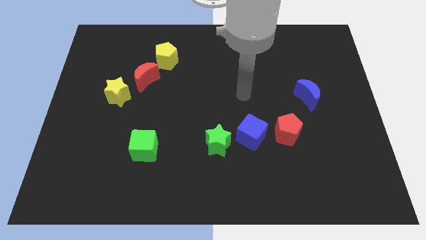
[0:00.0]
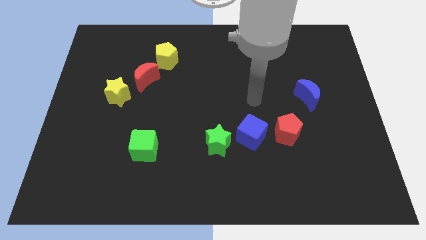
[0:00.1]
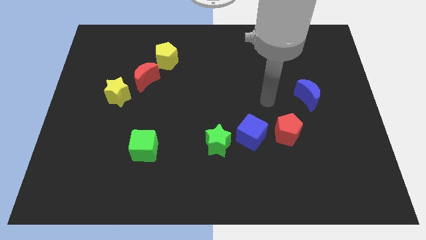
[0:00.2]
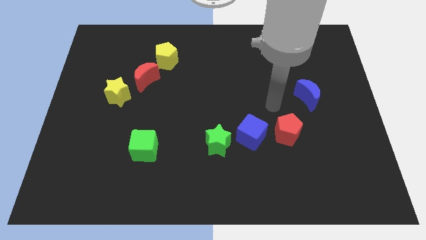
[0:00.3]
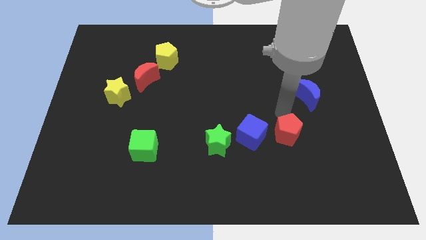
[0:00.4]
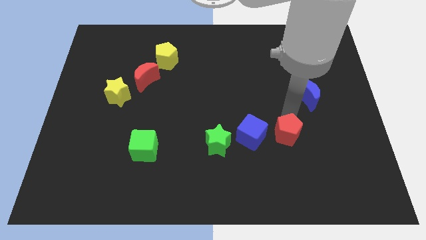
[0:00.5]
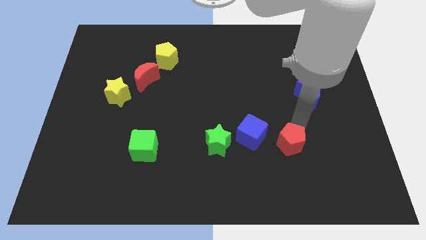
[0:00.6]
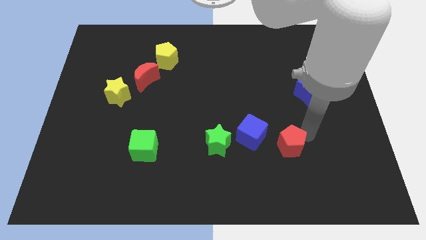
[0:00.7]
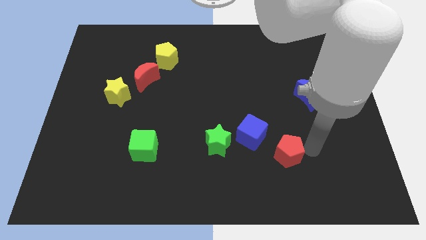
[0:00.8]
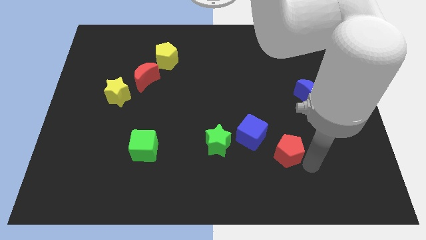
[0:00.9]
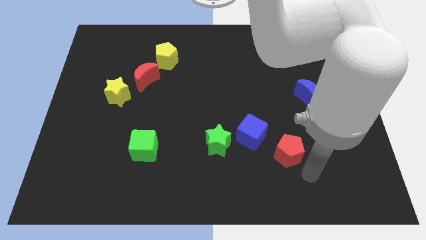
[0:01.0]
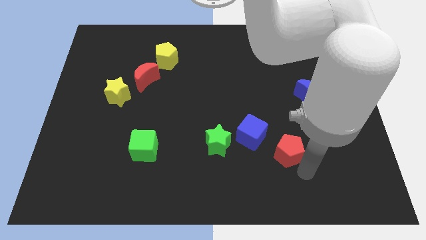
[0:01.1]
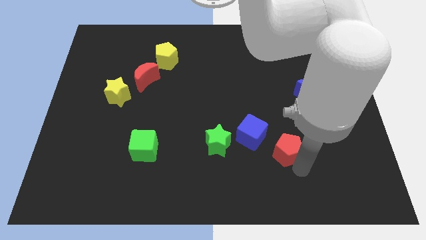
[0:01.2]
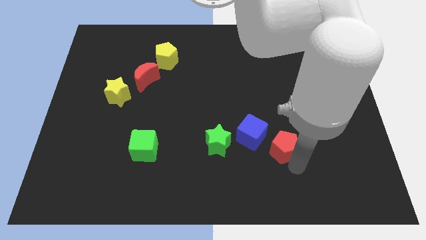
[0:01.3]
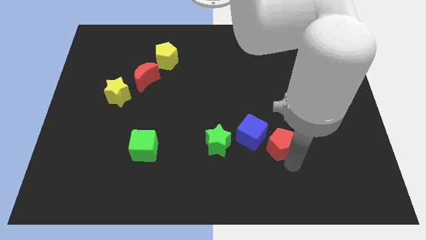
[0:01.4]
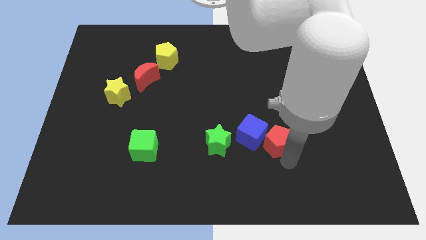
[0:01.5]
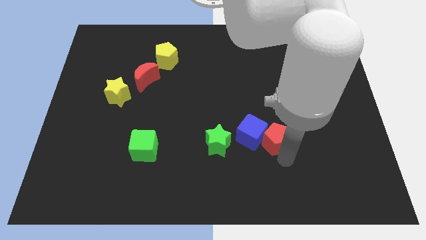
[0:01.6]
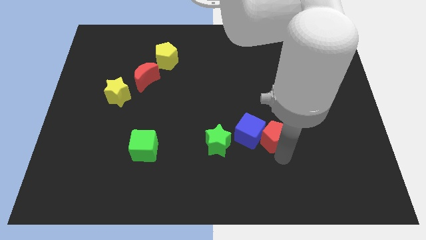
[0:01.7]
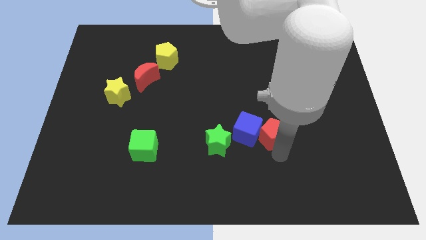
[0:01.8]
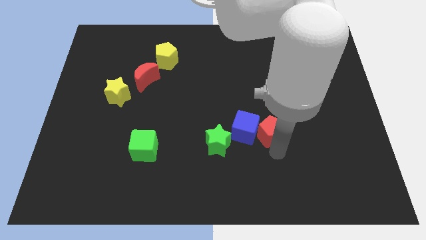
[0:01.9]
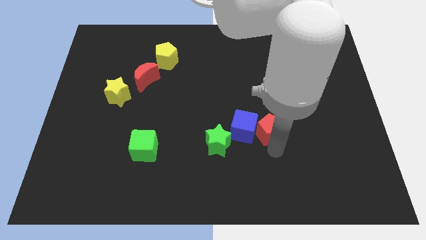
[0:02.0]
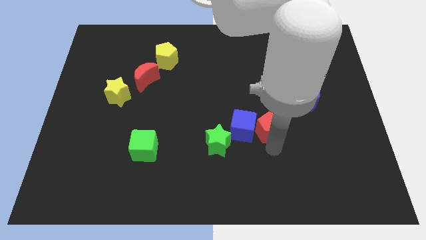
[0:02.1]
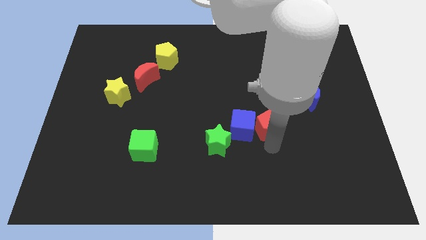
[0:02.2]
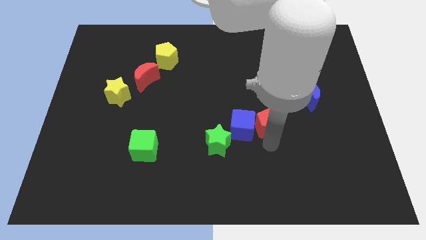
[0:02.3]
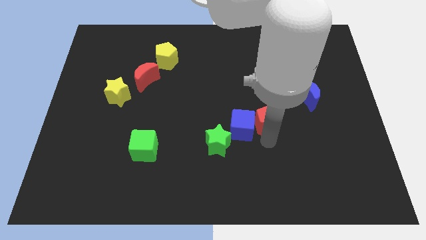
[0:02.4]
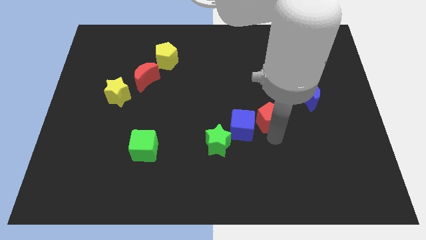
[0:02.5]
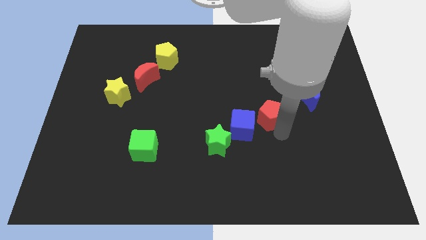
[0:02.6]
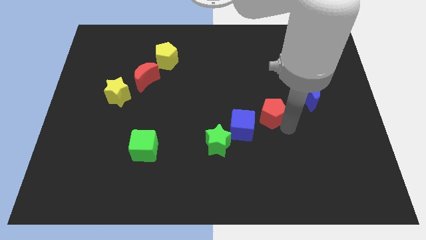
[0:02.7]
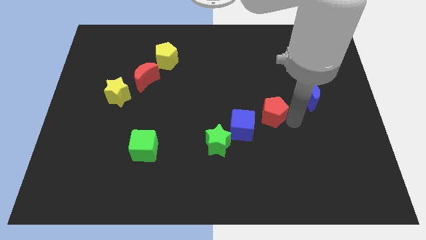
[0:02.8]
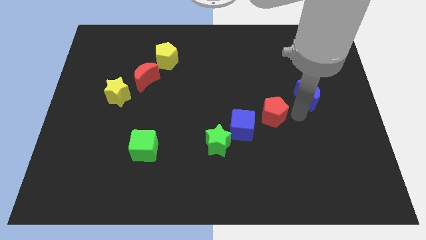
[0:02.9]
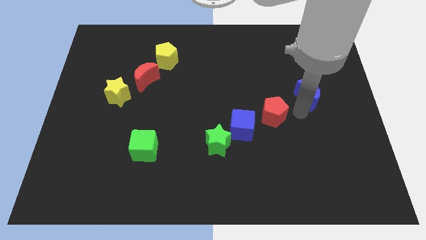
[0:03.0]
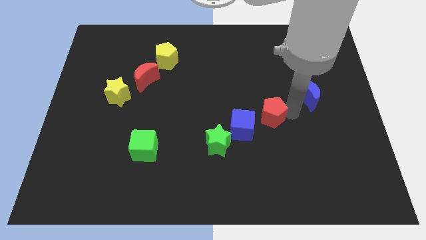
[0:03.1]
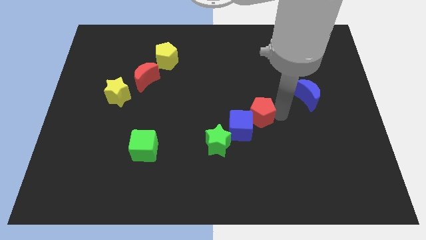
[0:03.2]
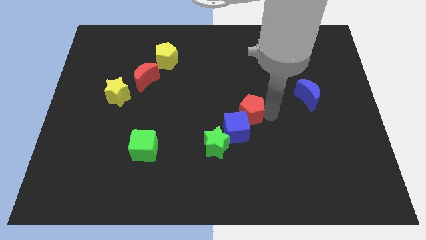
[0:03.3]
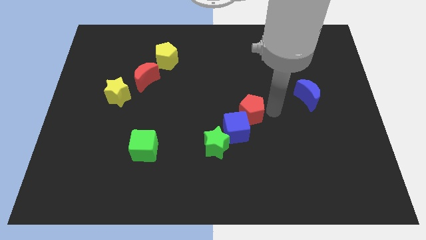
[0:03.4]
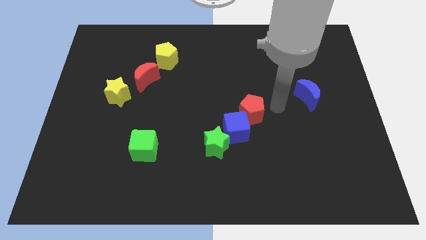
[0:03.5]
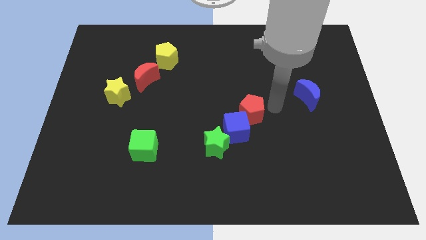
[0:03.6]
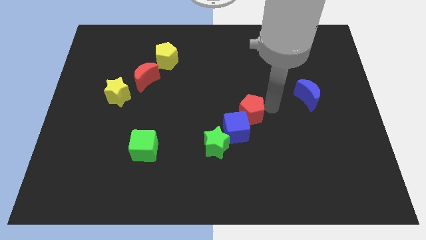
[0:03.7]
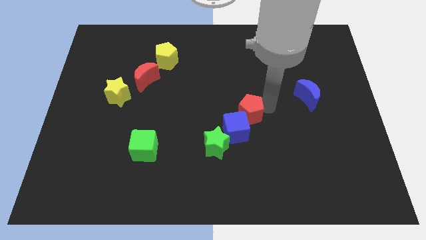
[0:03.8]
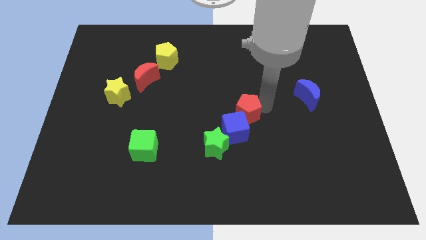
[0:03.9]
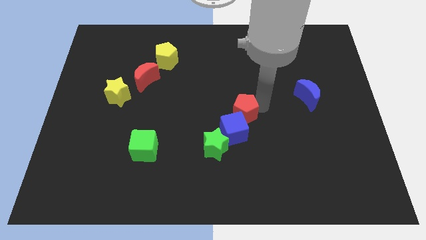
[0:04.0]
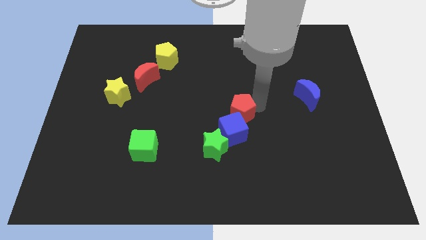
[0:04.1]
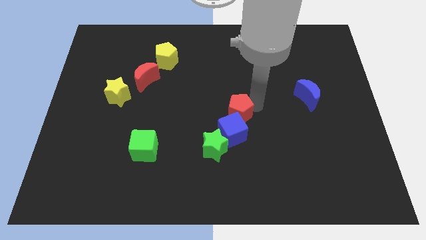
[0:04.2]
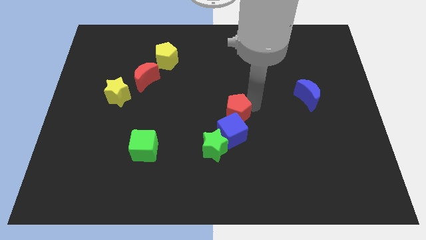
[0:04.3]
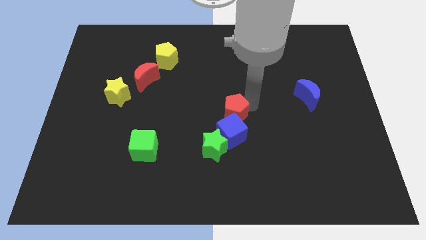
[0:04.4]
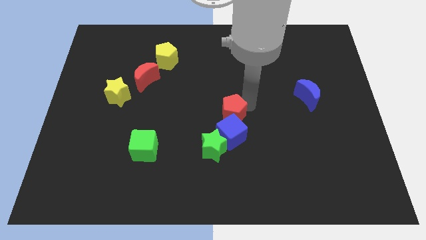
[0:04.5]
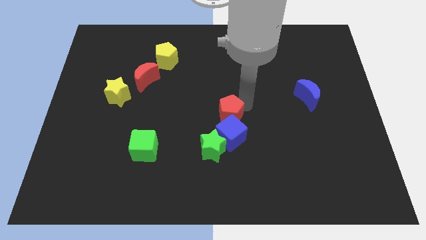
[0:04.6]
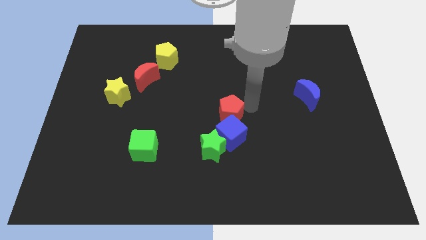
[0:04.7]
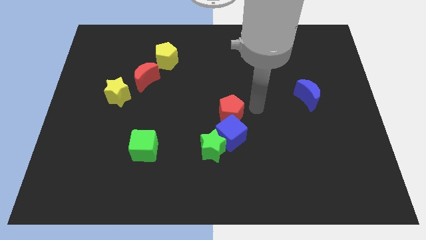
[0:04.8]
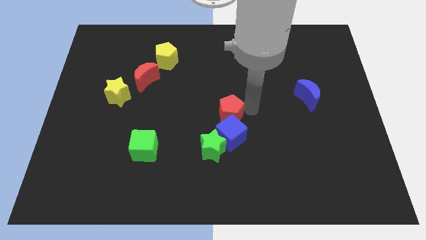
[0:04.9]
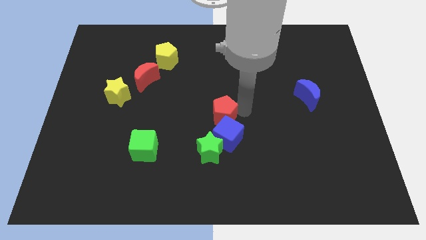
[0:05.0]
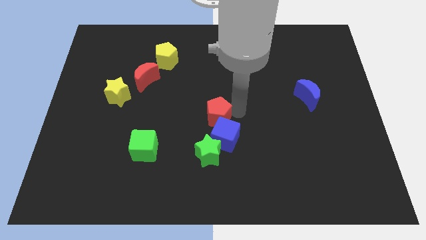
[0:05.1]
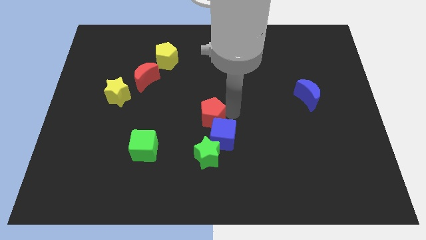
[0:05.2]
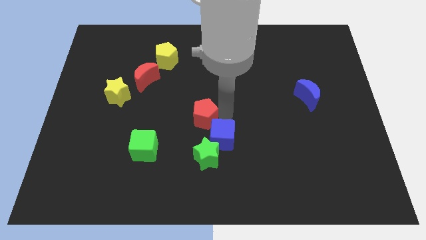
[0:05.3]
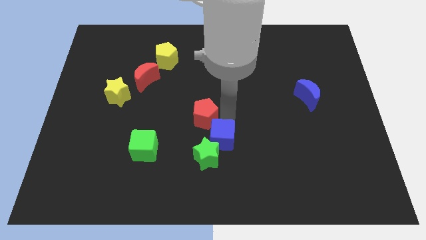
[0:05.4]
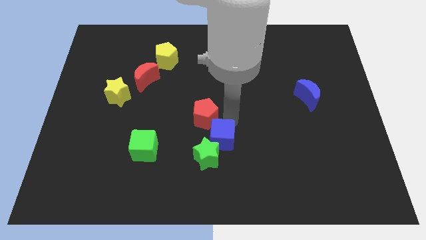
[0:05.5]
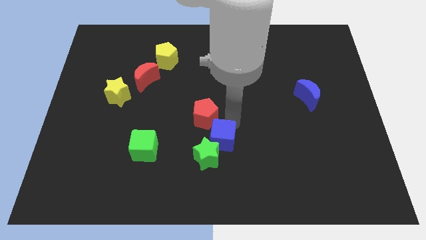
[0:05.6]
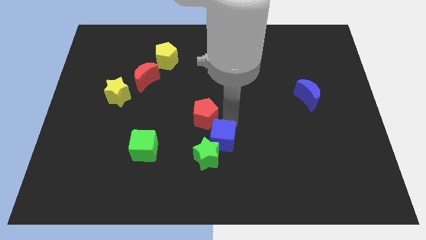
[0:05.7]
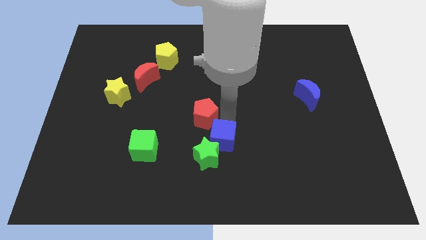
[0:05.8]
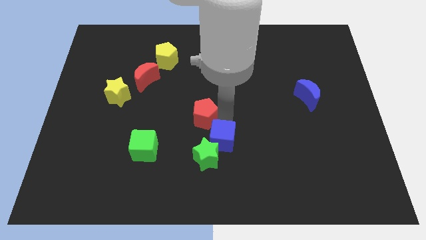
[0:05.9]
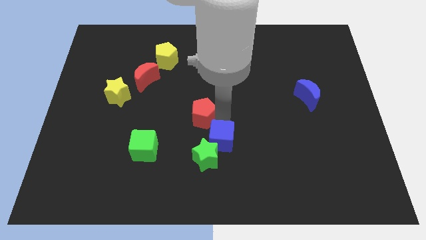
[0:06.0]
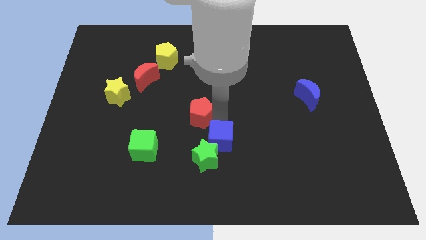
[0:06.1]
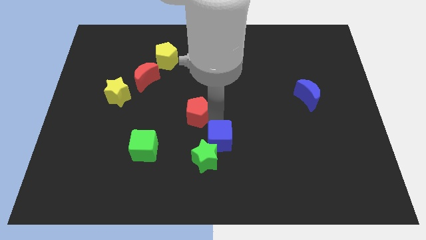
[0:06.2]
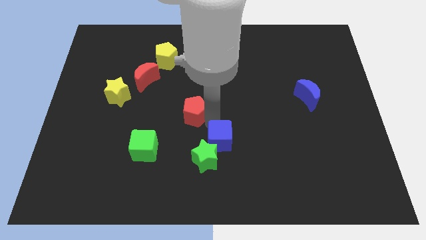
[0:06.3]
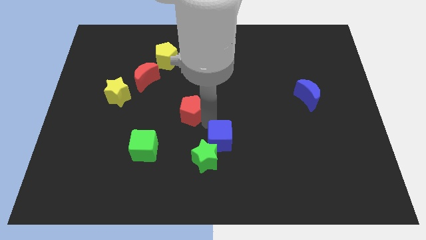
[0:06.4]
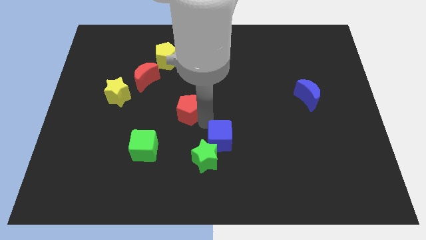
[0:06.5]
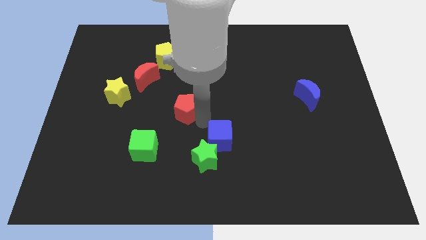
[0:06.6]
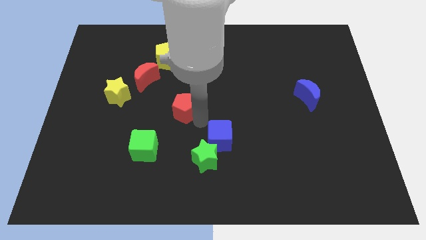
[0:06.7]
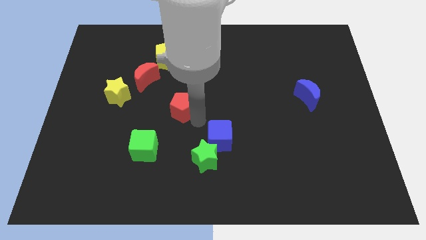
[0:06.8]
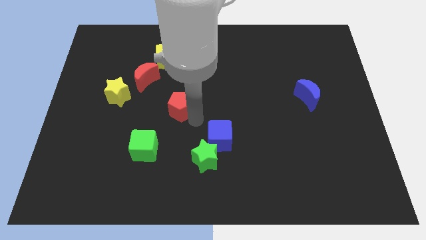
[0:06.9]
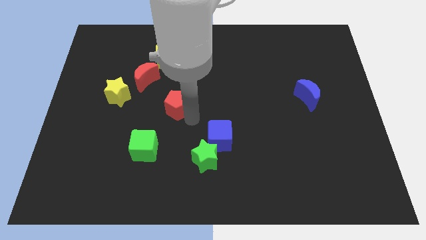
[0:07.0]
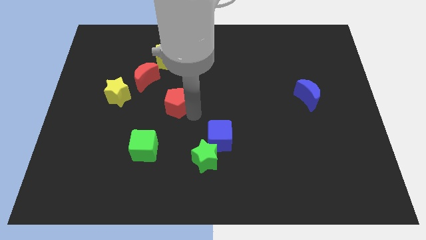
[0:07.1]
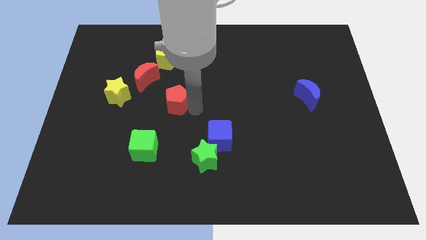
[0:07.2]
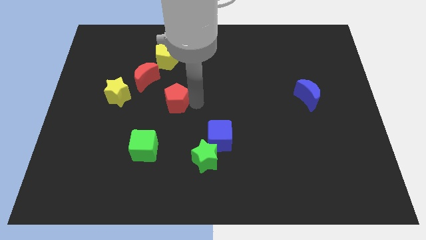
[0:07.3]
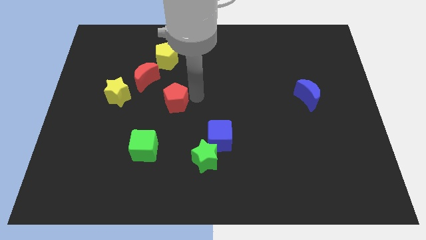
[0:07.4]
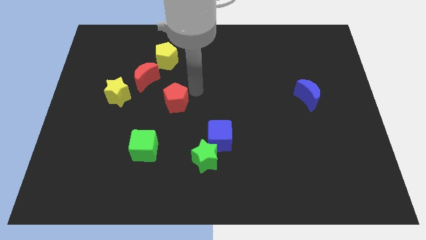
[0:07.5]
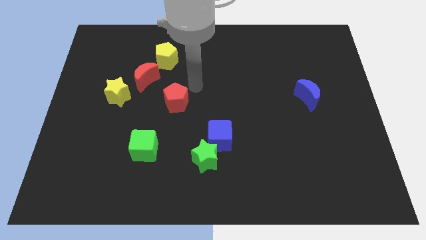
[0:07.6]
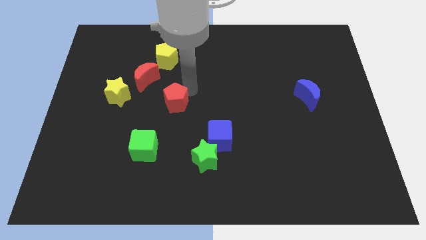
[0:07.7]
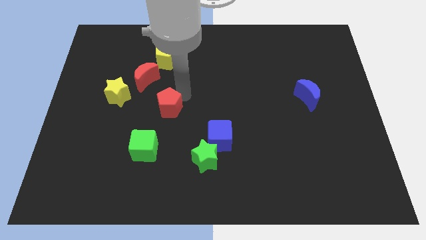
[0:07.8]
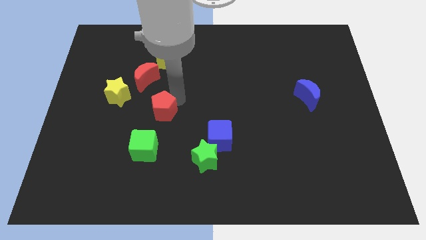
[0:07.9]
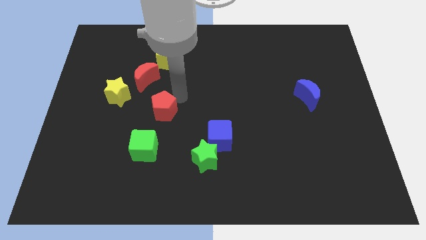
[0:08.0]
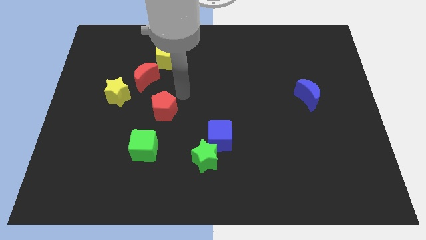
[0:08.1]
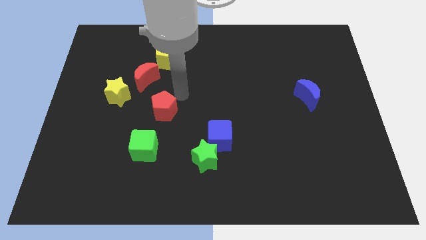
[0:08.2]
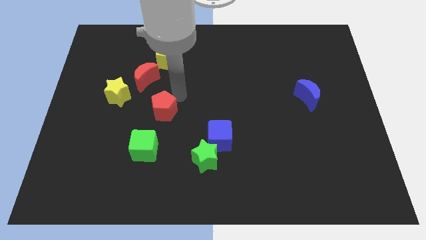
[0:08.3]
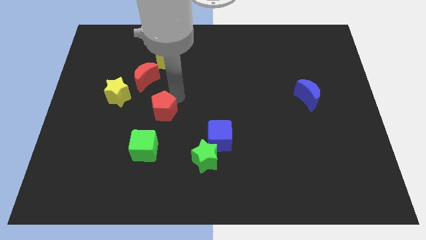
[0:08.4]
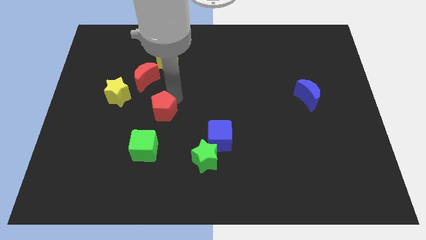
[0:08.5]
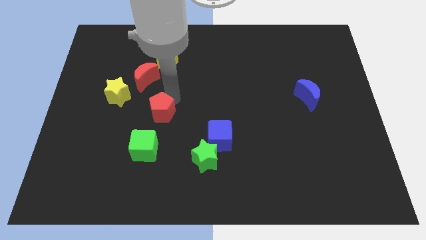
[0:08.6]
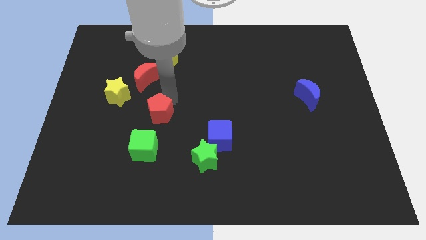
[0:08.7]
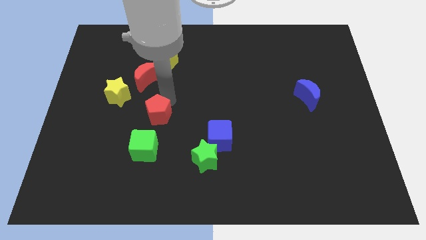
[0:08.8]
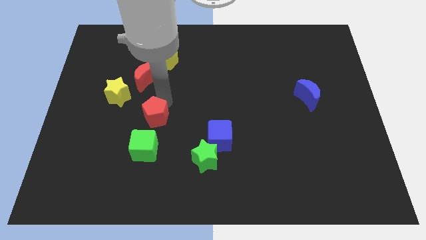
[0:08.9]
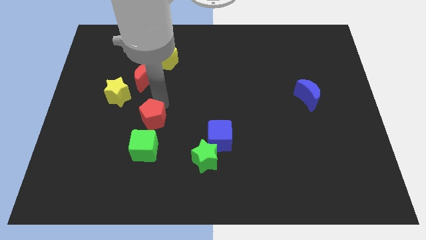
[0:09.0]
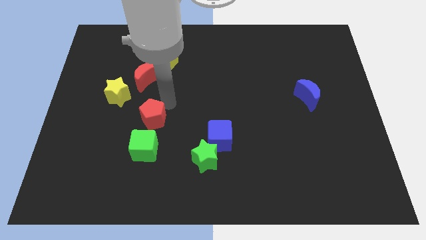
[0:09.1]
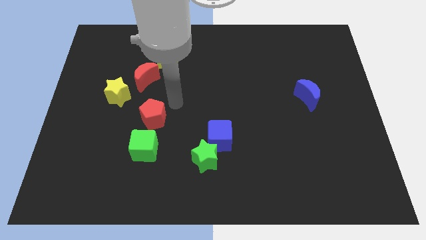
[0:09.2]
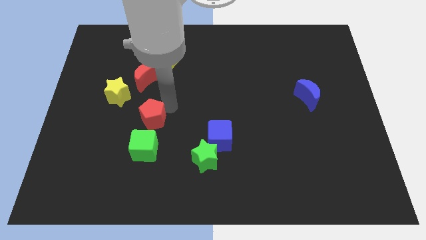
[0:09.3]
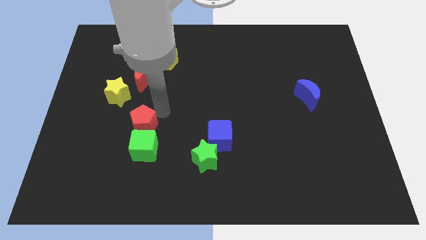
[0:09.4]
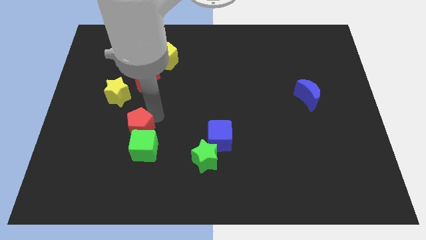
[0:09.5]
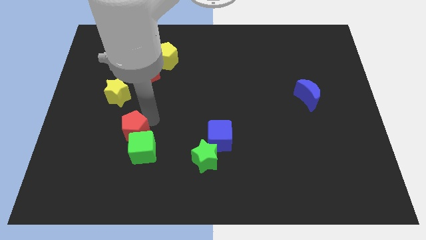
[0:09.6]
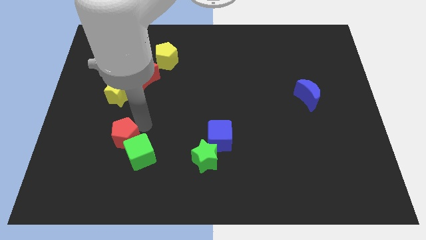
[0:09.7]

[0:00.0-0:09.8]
put the red pentagon just left of the green cube
